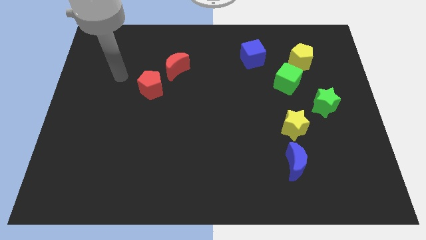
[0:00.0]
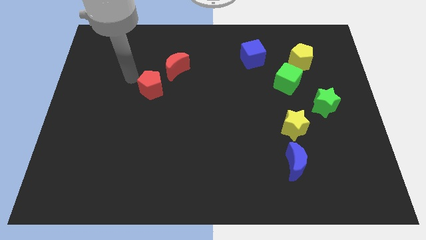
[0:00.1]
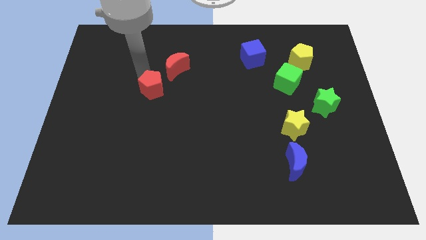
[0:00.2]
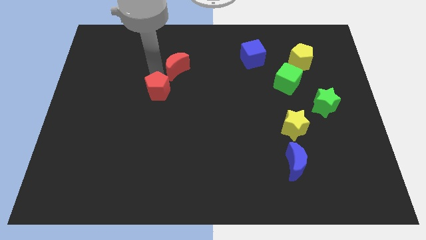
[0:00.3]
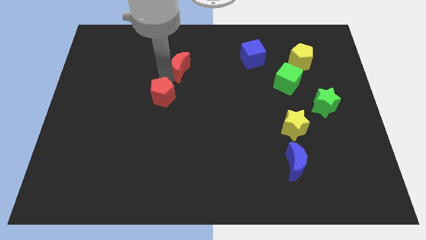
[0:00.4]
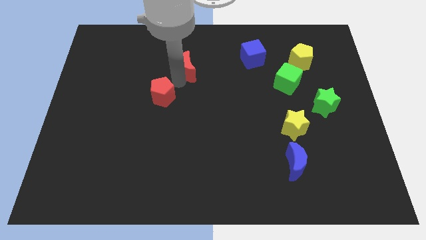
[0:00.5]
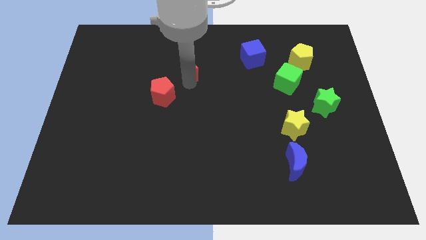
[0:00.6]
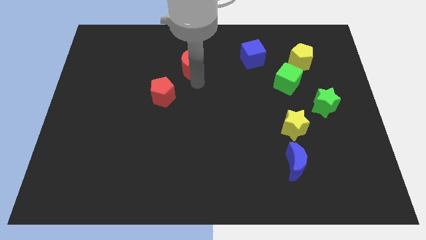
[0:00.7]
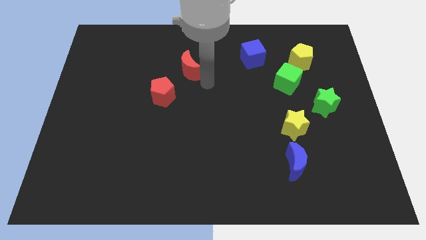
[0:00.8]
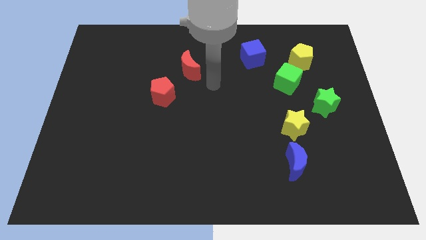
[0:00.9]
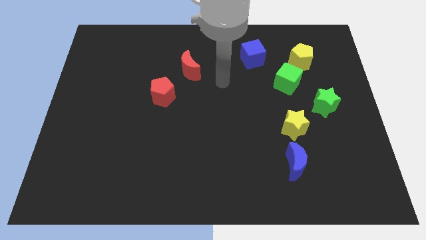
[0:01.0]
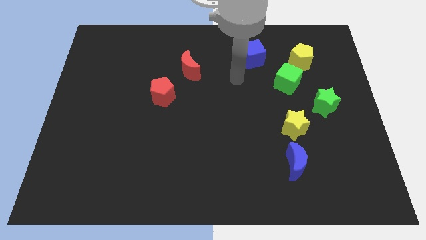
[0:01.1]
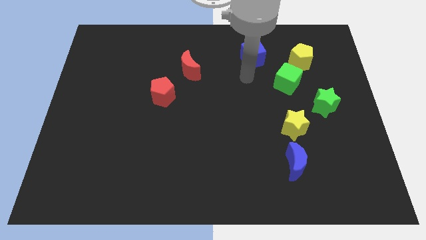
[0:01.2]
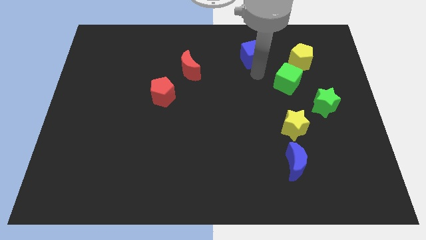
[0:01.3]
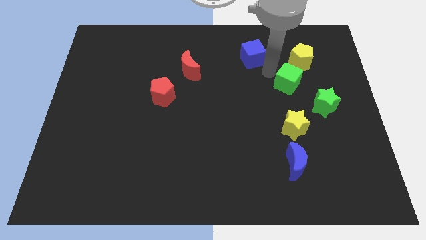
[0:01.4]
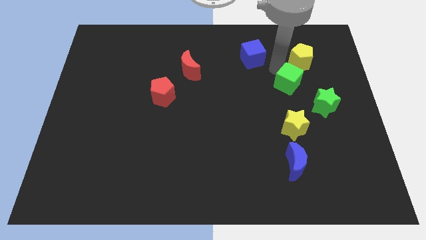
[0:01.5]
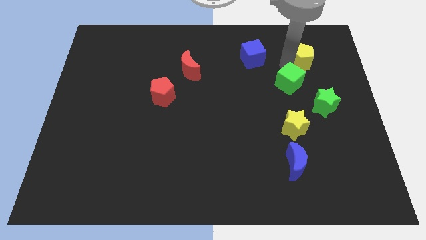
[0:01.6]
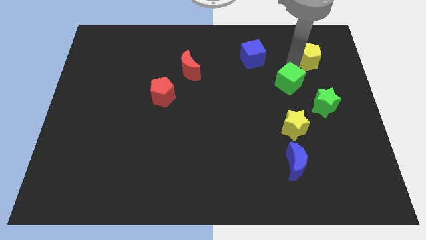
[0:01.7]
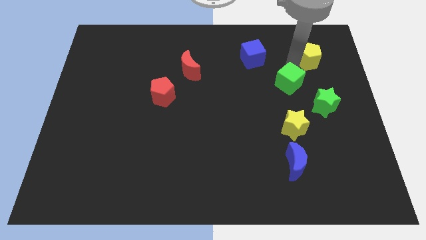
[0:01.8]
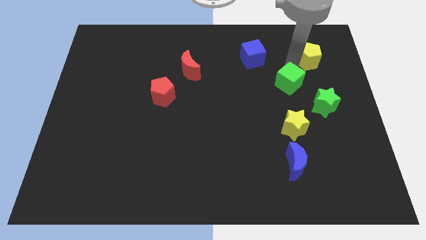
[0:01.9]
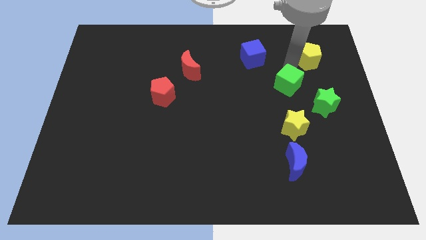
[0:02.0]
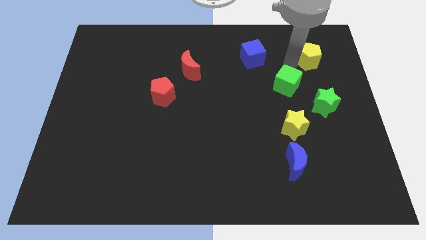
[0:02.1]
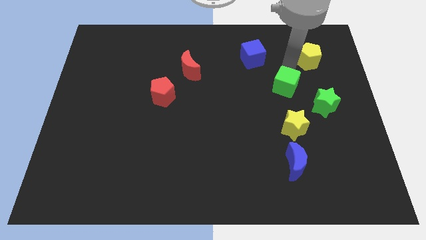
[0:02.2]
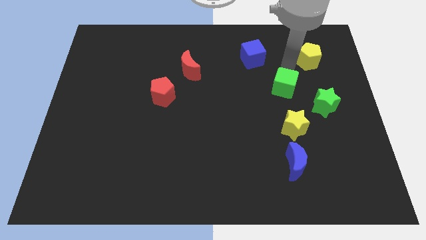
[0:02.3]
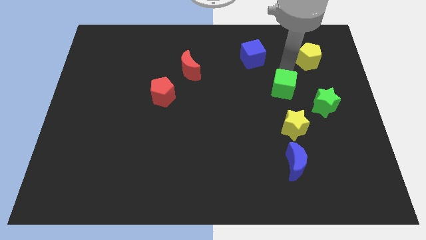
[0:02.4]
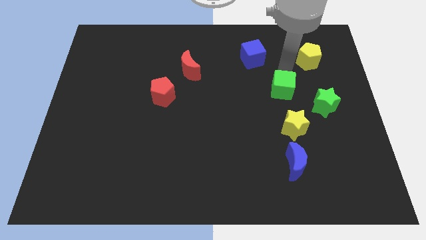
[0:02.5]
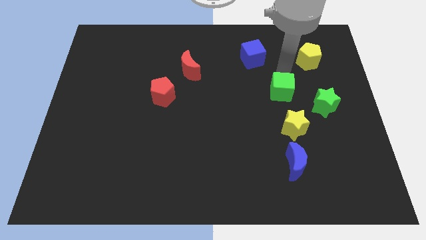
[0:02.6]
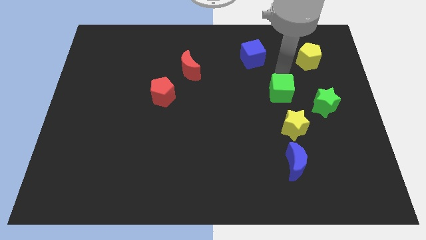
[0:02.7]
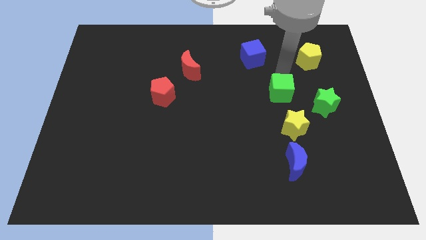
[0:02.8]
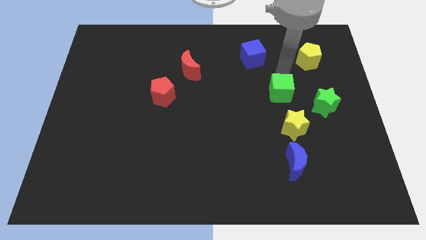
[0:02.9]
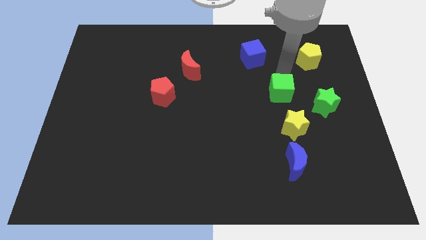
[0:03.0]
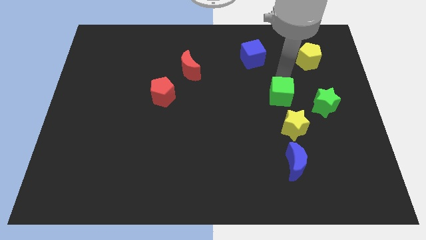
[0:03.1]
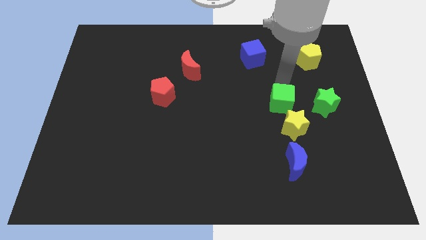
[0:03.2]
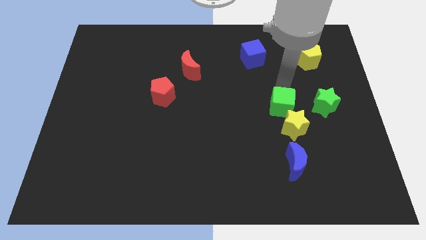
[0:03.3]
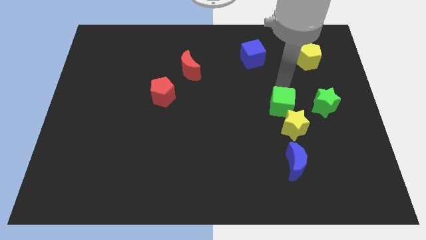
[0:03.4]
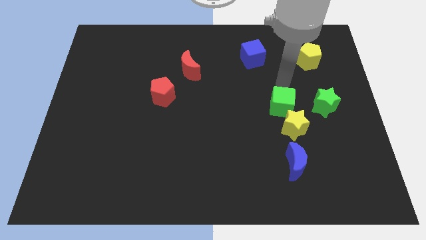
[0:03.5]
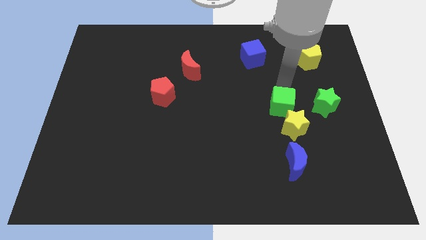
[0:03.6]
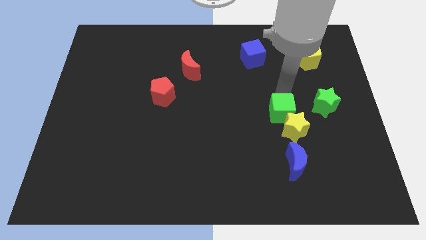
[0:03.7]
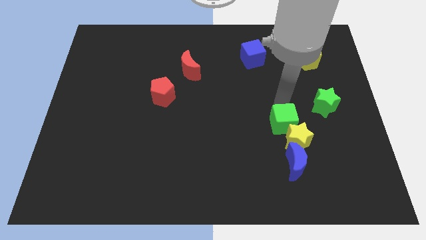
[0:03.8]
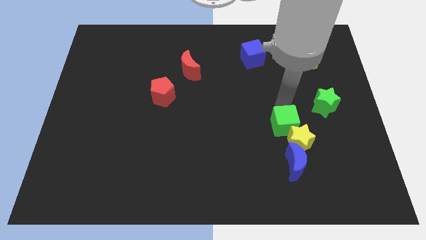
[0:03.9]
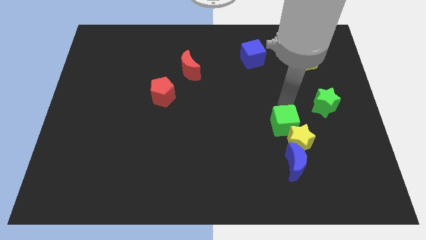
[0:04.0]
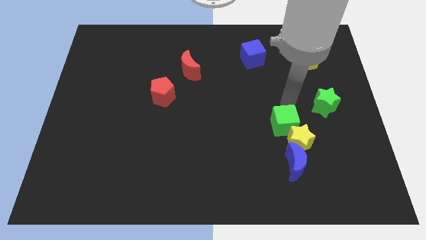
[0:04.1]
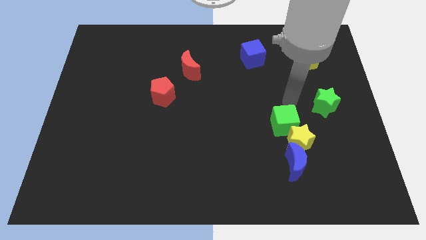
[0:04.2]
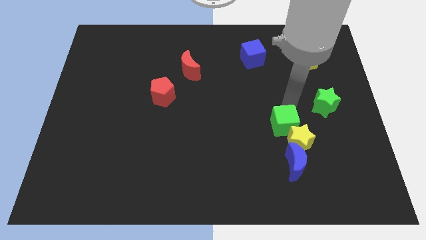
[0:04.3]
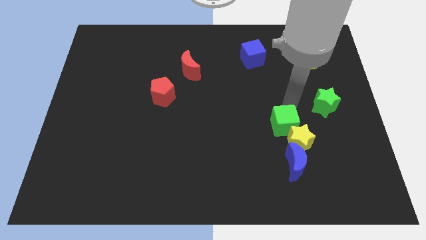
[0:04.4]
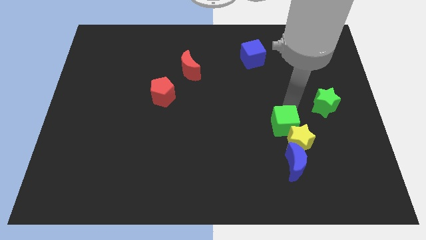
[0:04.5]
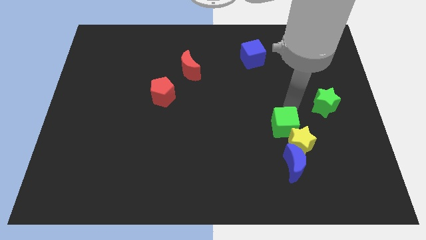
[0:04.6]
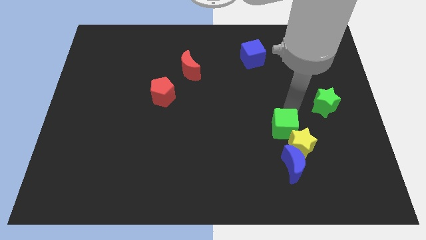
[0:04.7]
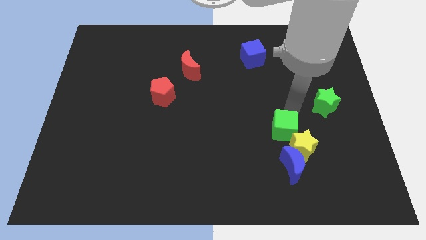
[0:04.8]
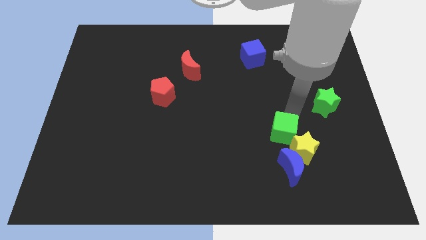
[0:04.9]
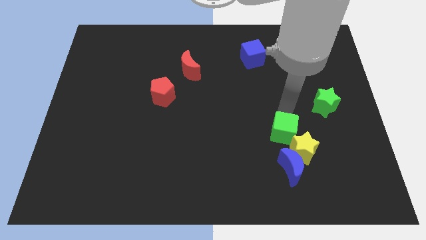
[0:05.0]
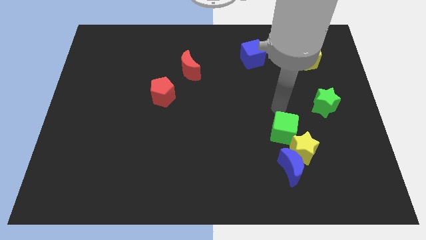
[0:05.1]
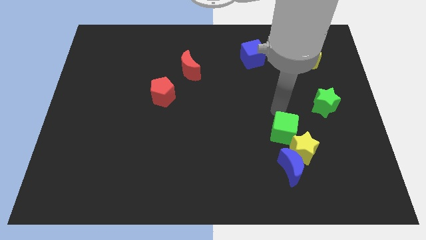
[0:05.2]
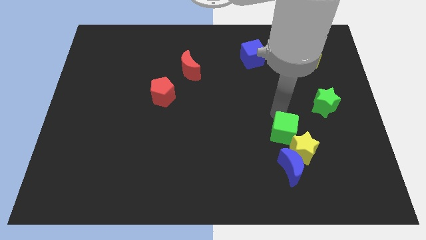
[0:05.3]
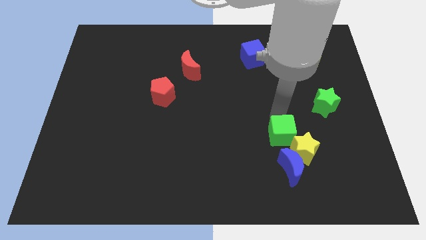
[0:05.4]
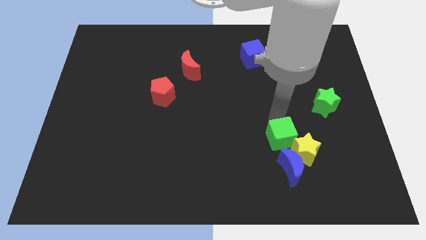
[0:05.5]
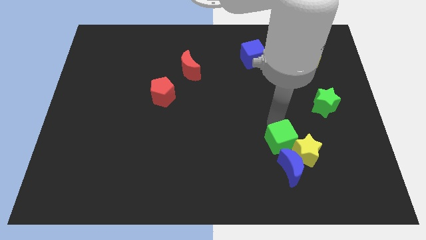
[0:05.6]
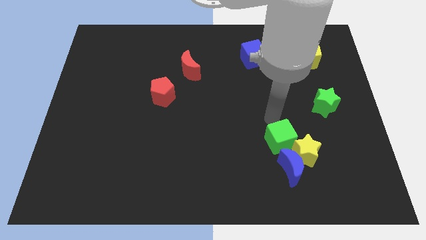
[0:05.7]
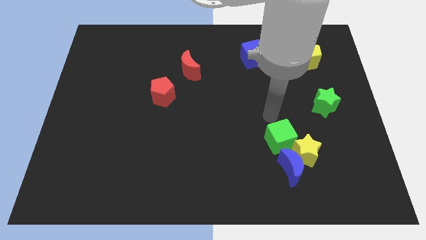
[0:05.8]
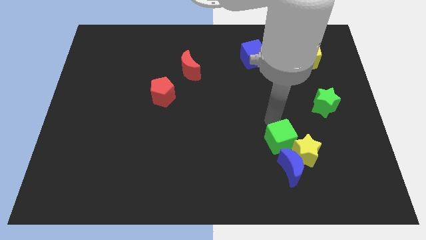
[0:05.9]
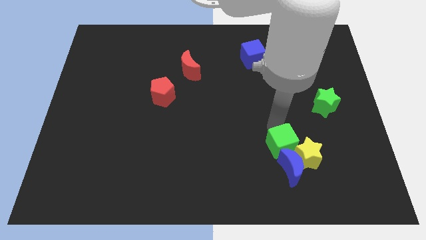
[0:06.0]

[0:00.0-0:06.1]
put the green cube towards the blue moon
